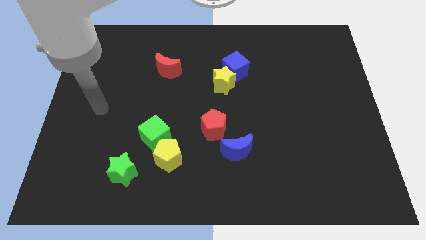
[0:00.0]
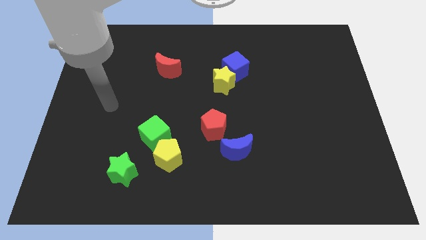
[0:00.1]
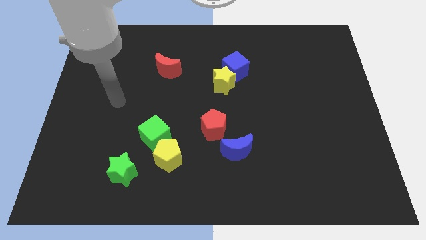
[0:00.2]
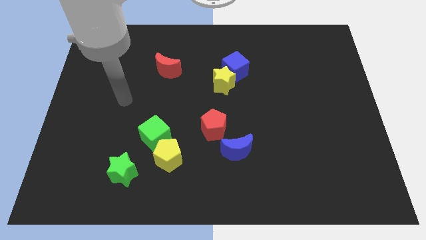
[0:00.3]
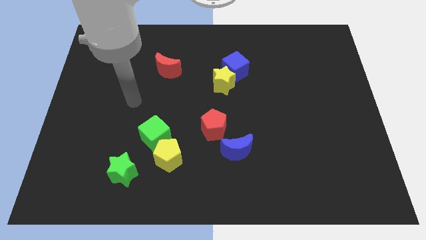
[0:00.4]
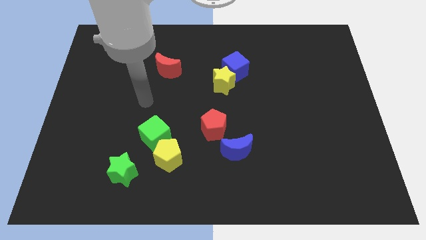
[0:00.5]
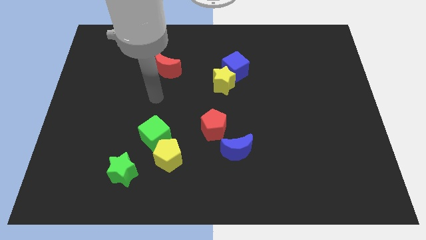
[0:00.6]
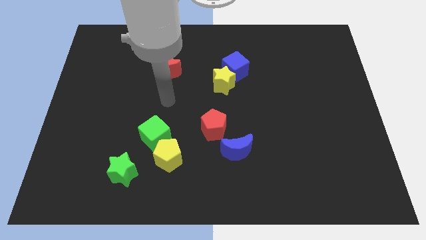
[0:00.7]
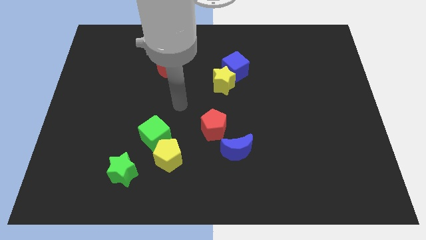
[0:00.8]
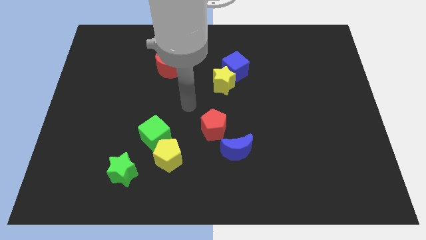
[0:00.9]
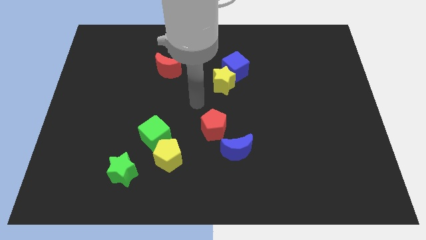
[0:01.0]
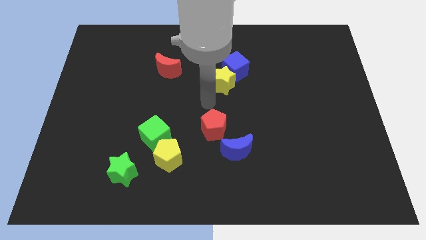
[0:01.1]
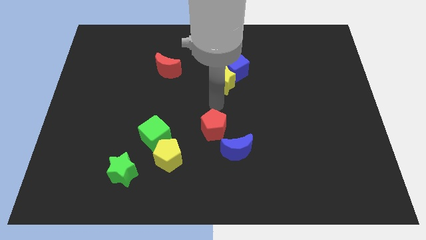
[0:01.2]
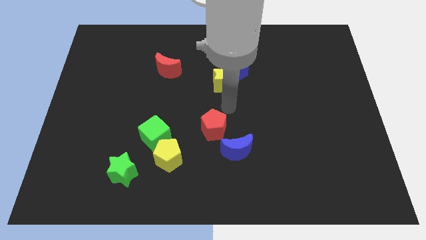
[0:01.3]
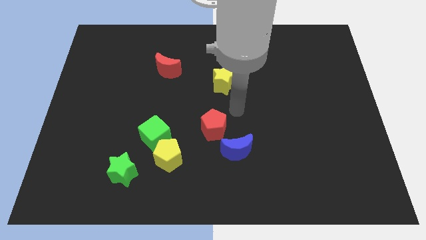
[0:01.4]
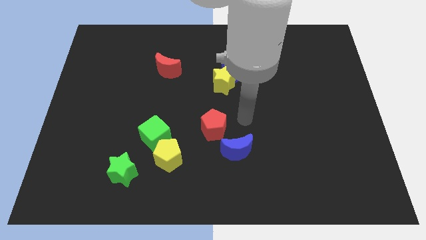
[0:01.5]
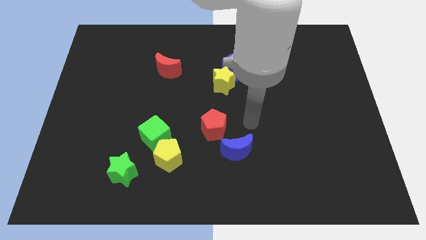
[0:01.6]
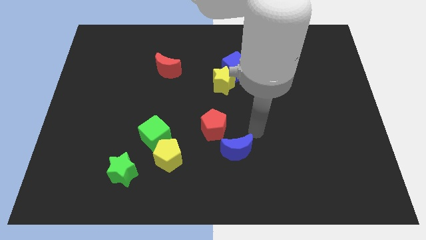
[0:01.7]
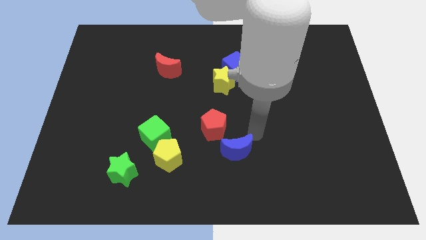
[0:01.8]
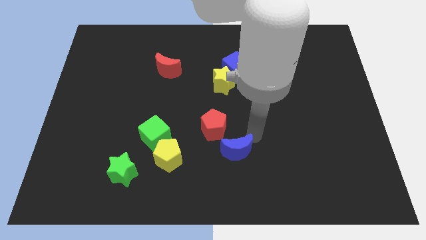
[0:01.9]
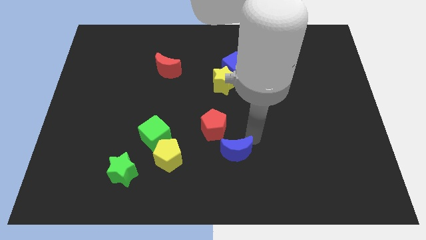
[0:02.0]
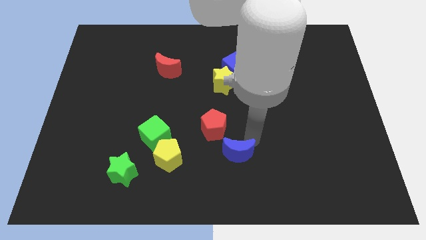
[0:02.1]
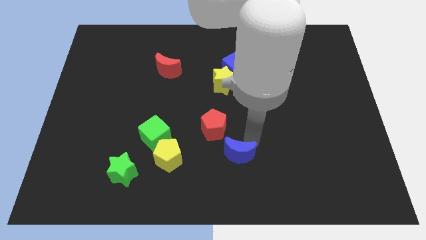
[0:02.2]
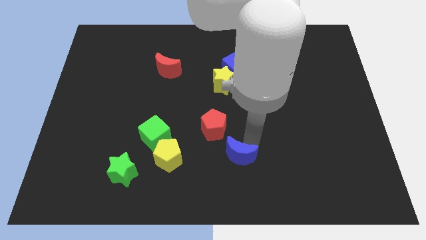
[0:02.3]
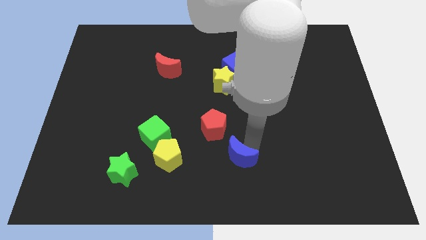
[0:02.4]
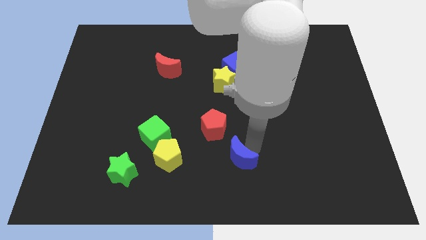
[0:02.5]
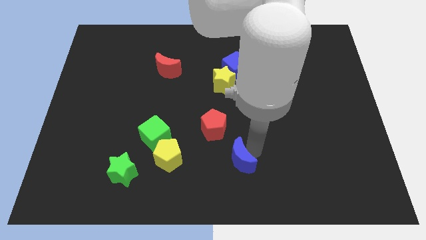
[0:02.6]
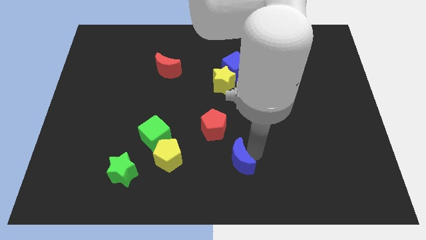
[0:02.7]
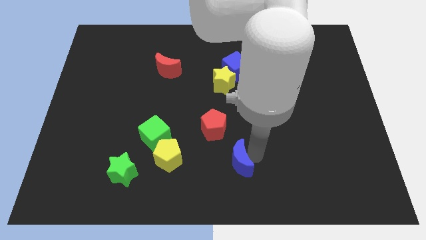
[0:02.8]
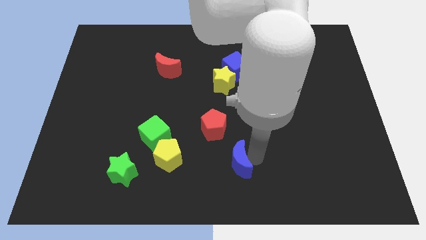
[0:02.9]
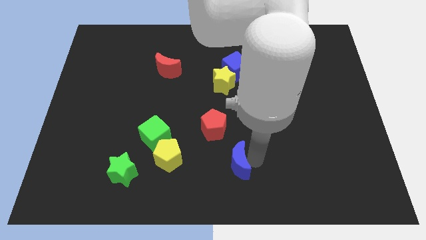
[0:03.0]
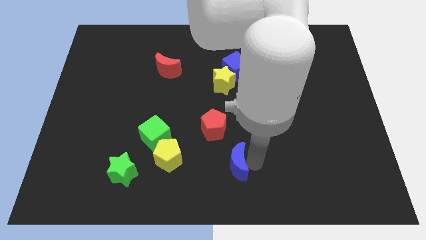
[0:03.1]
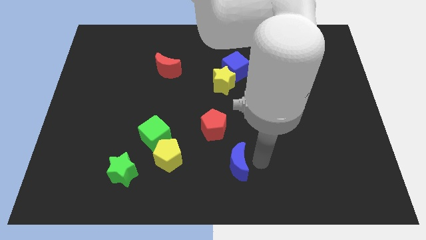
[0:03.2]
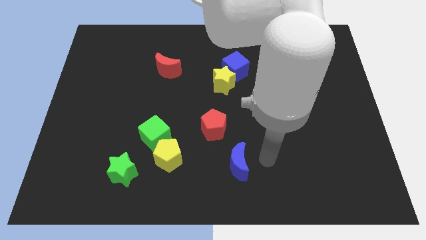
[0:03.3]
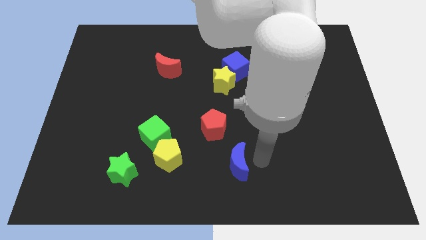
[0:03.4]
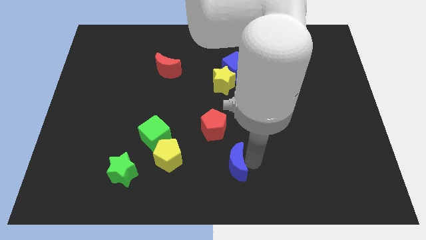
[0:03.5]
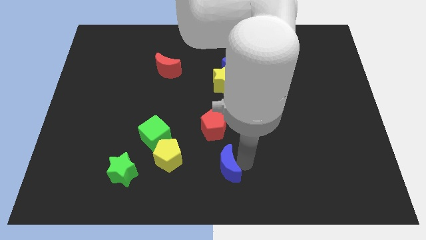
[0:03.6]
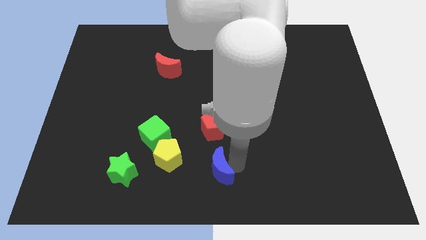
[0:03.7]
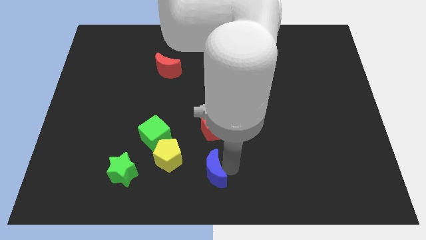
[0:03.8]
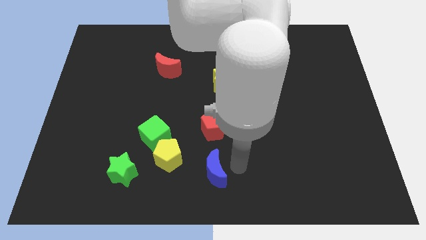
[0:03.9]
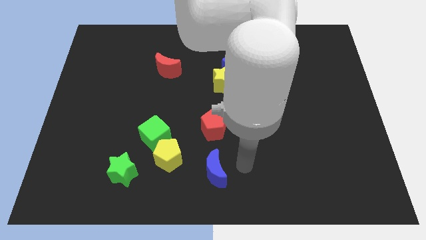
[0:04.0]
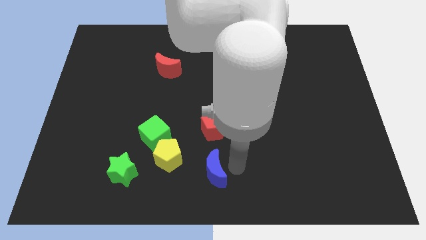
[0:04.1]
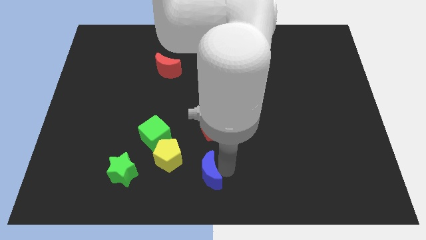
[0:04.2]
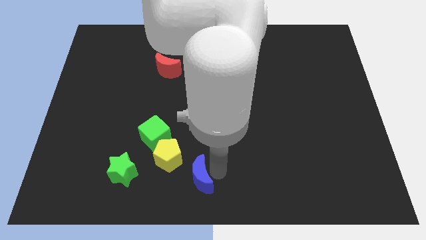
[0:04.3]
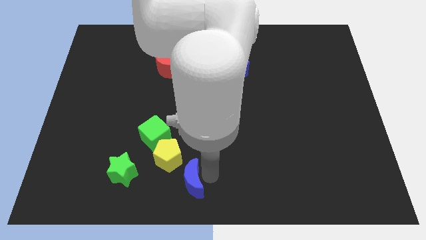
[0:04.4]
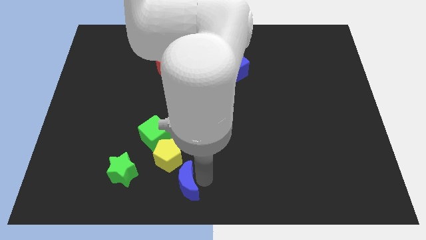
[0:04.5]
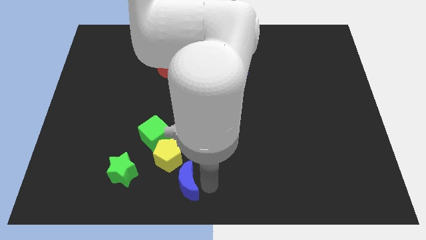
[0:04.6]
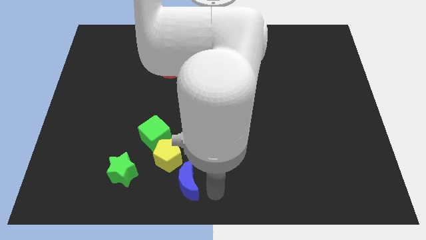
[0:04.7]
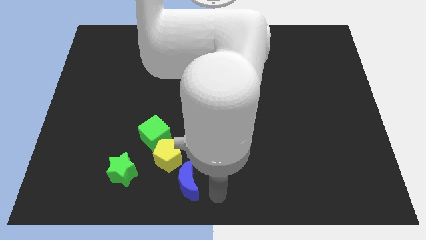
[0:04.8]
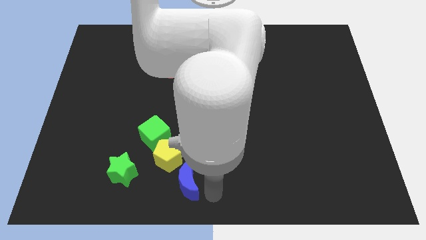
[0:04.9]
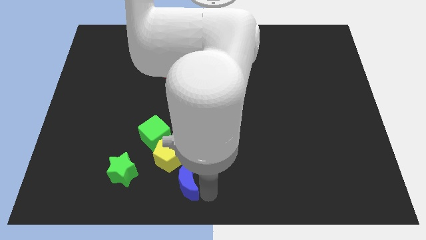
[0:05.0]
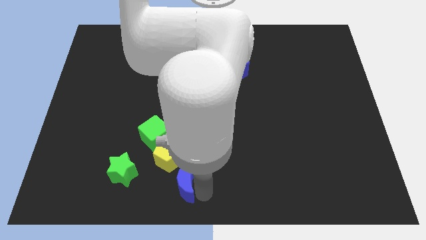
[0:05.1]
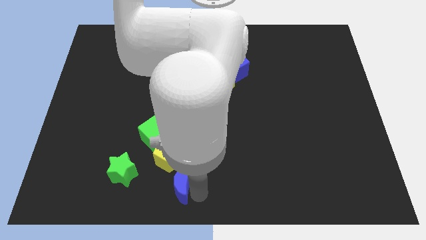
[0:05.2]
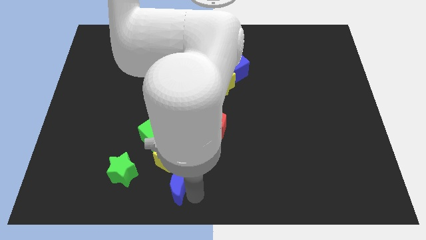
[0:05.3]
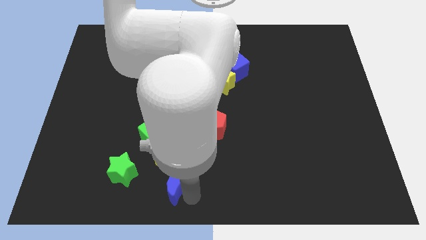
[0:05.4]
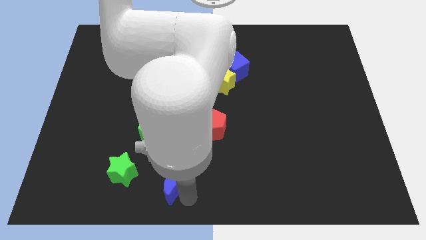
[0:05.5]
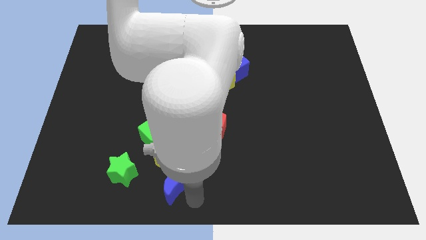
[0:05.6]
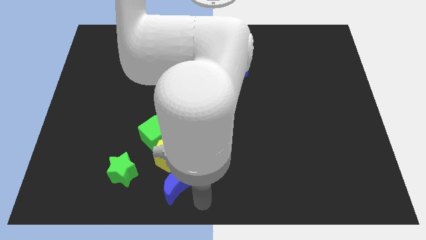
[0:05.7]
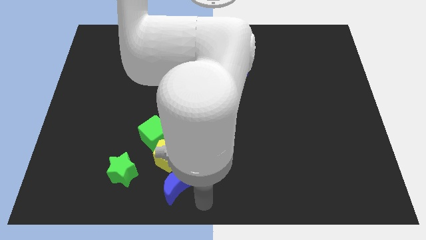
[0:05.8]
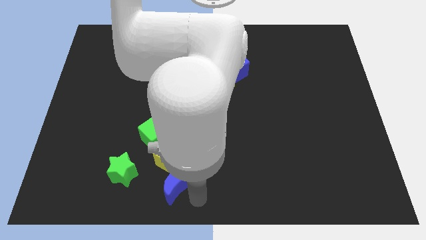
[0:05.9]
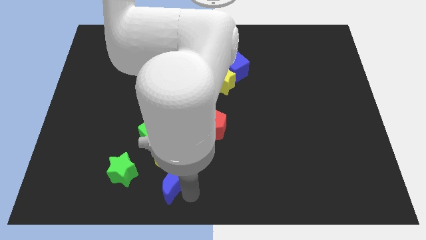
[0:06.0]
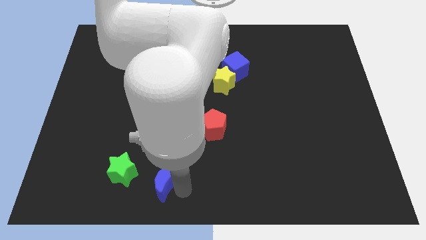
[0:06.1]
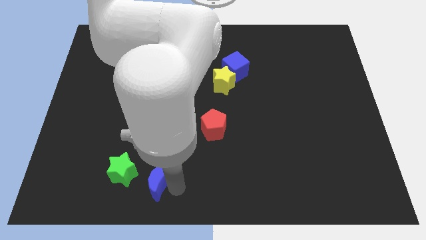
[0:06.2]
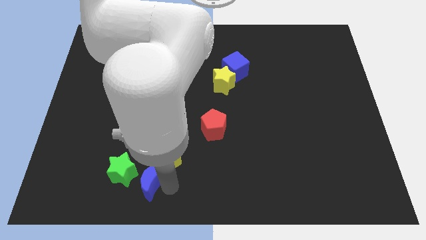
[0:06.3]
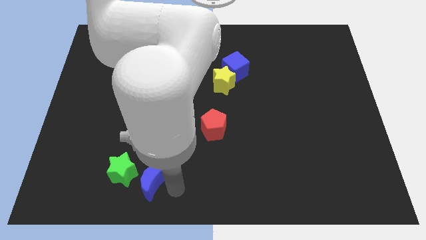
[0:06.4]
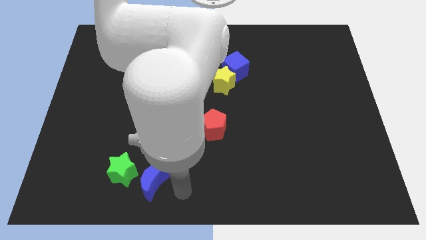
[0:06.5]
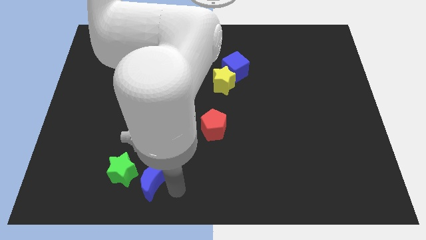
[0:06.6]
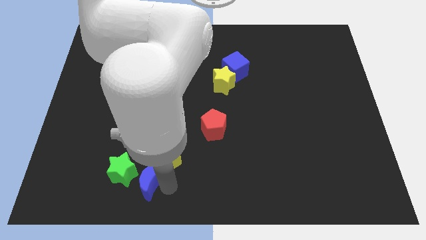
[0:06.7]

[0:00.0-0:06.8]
slide the blue moon to the green star

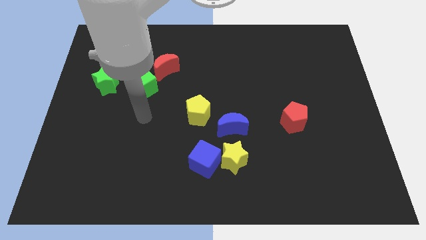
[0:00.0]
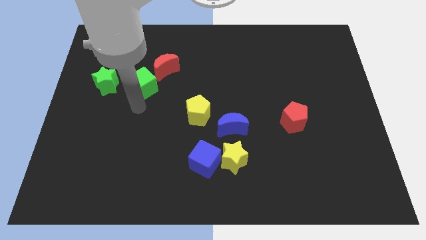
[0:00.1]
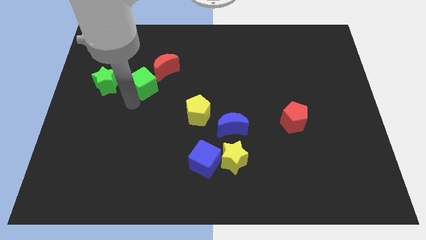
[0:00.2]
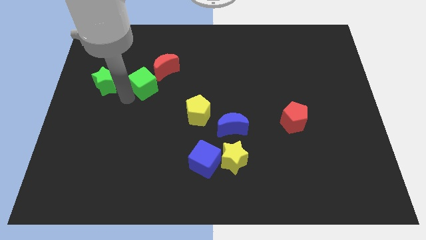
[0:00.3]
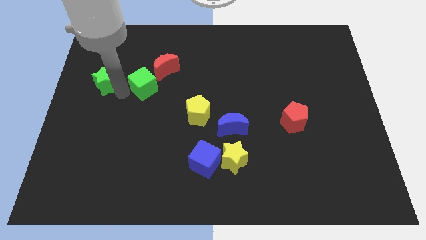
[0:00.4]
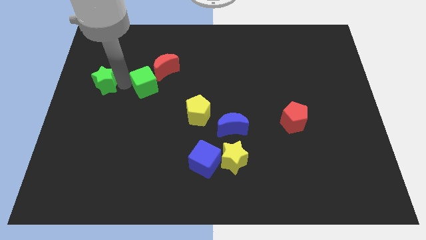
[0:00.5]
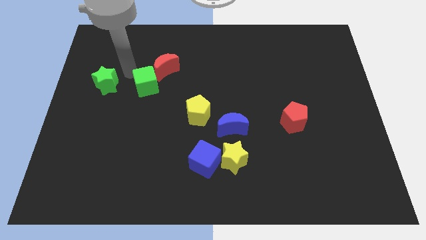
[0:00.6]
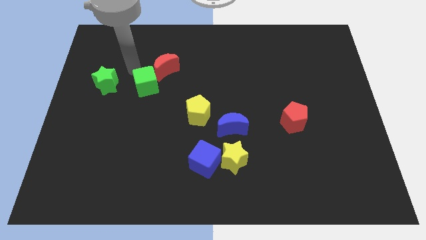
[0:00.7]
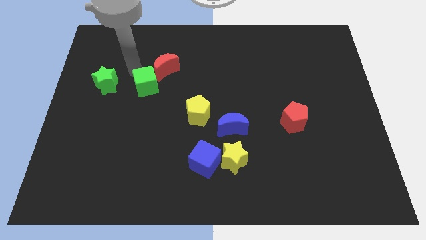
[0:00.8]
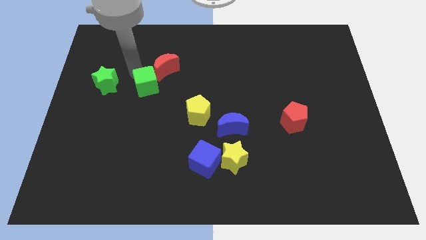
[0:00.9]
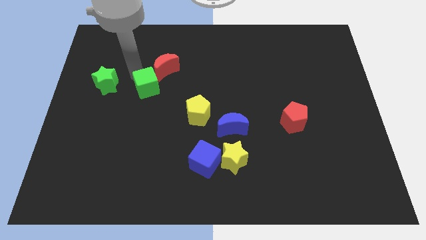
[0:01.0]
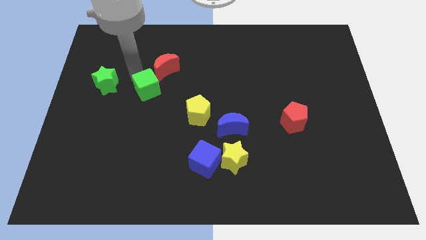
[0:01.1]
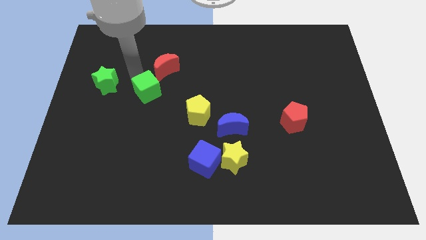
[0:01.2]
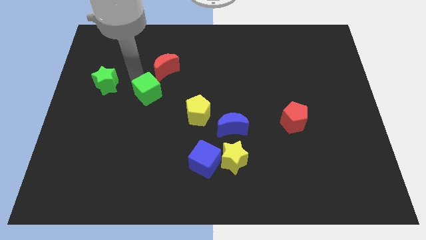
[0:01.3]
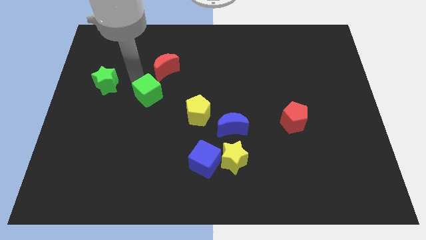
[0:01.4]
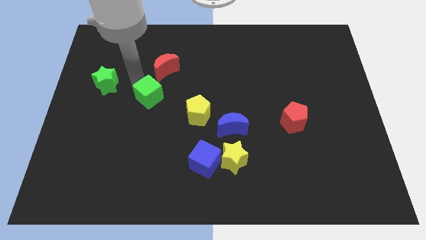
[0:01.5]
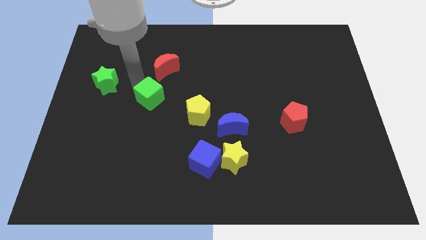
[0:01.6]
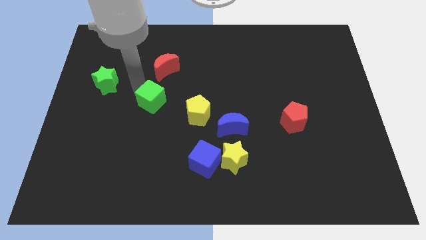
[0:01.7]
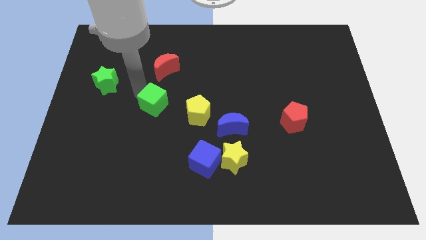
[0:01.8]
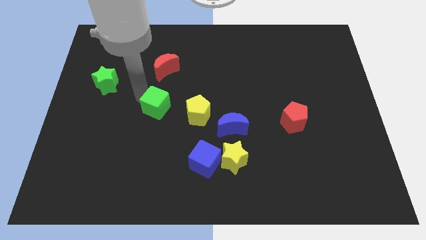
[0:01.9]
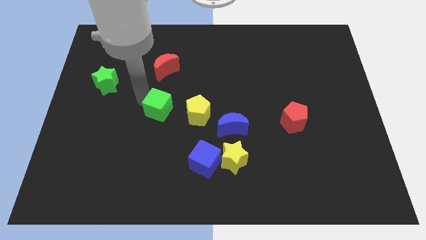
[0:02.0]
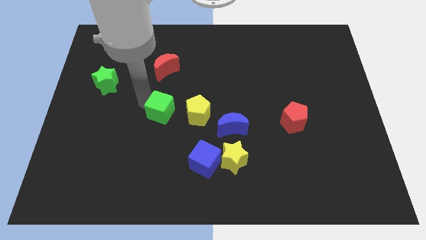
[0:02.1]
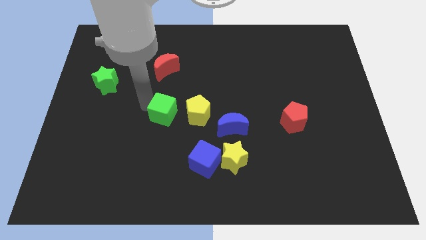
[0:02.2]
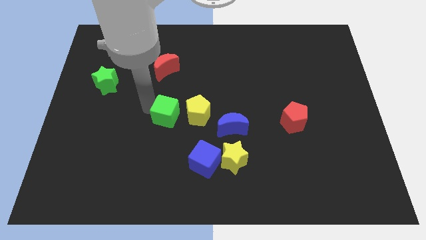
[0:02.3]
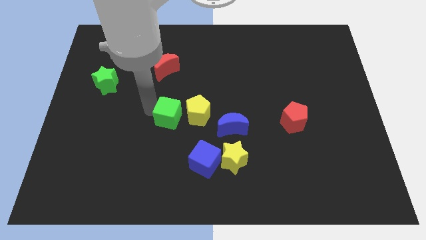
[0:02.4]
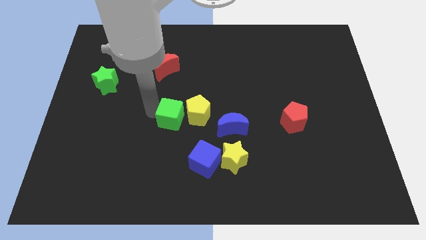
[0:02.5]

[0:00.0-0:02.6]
slide the green cube next to the yellow pentagon
